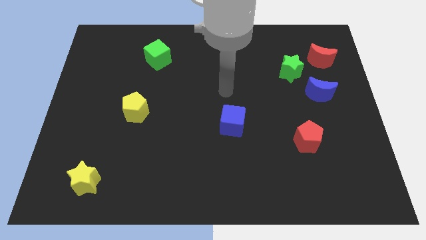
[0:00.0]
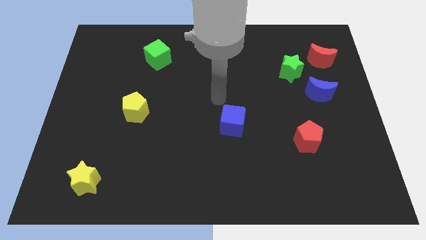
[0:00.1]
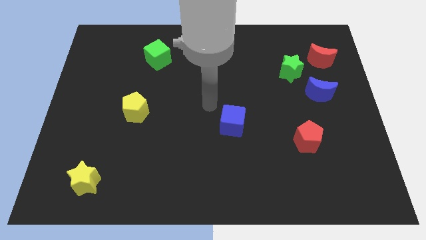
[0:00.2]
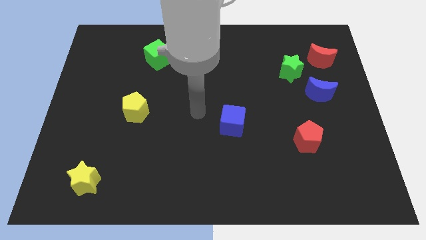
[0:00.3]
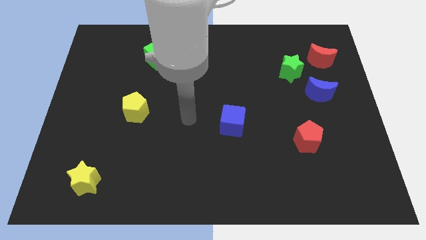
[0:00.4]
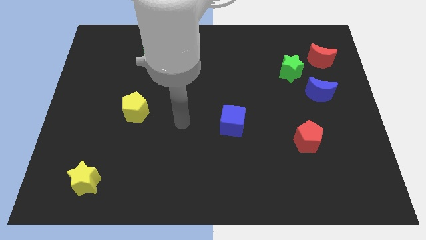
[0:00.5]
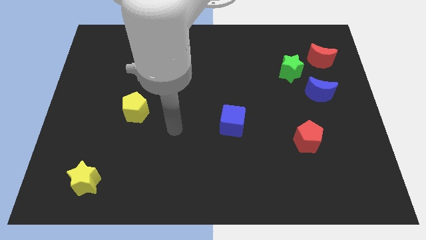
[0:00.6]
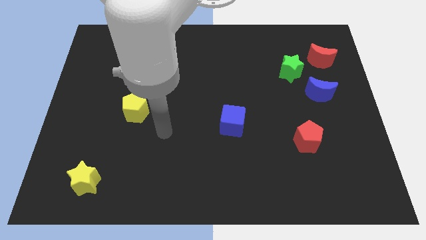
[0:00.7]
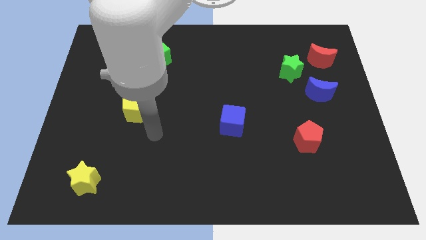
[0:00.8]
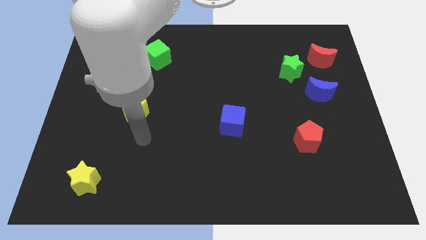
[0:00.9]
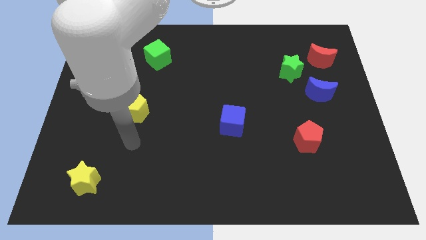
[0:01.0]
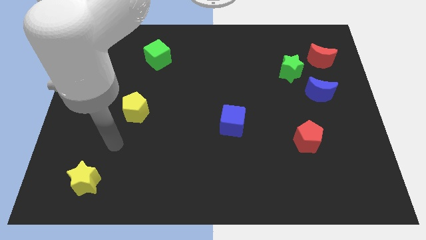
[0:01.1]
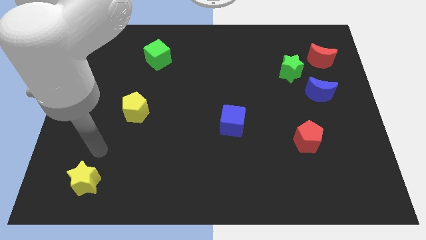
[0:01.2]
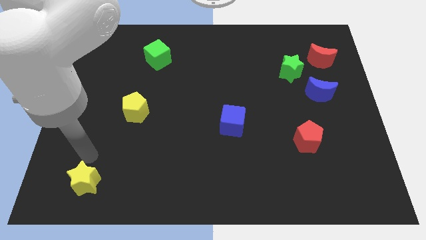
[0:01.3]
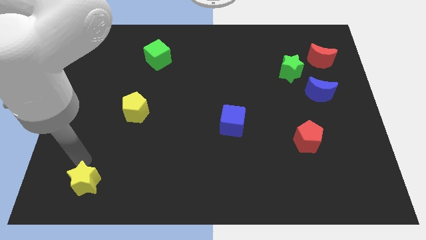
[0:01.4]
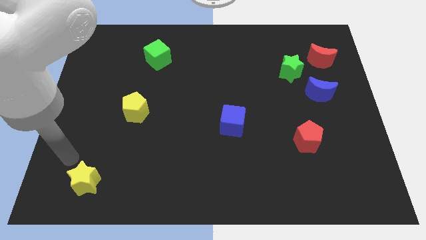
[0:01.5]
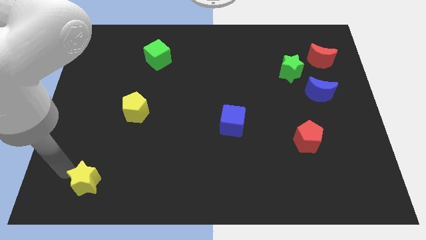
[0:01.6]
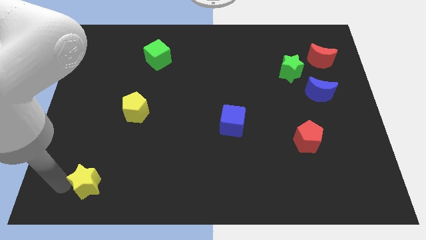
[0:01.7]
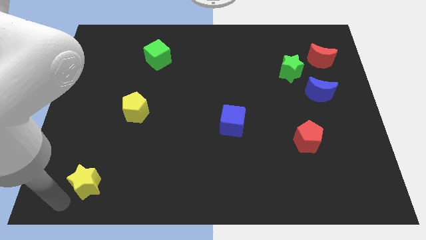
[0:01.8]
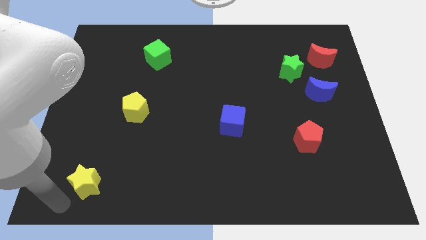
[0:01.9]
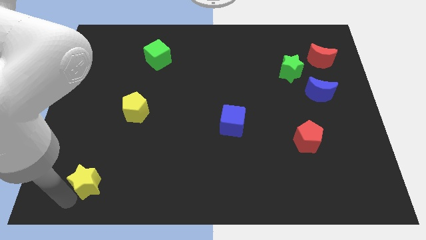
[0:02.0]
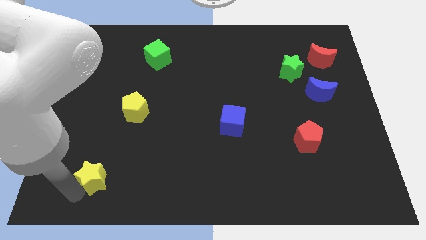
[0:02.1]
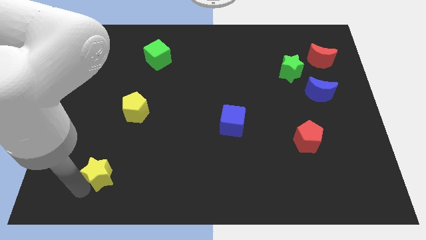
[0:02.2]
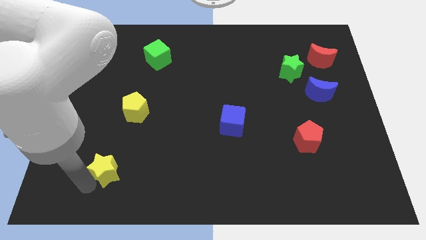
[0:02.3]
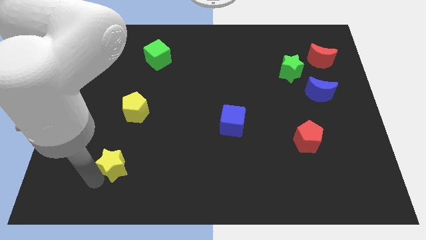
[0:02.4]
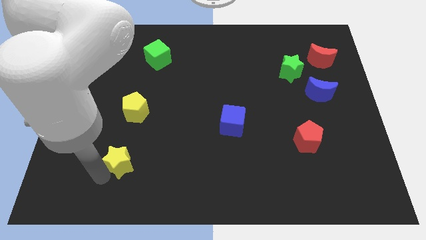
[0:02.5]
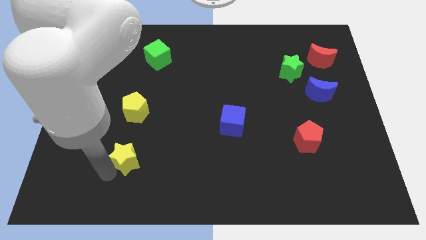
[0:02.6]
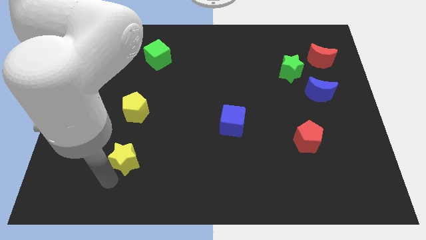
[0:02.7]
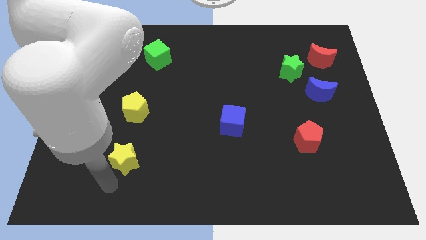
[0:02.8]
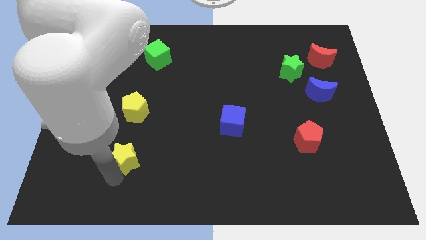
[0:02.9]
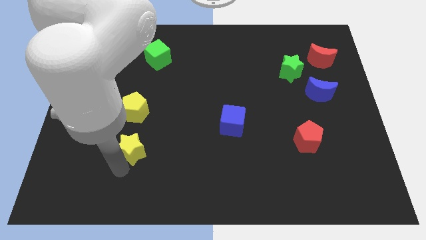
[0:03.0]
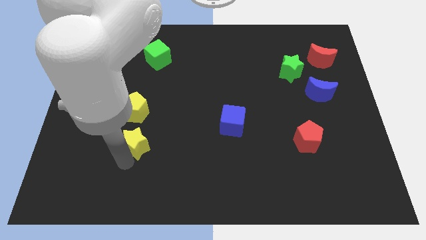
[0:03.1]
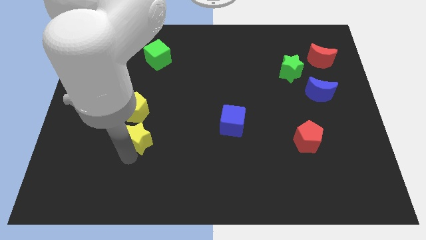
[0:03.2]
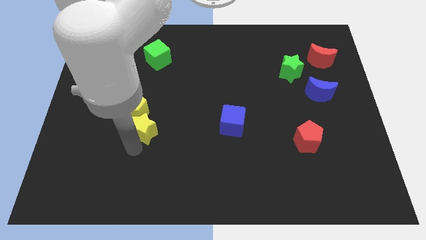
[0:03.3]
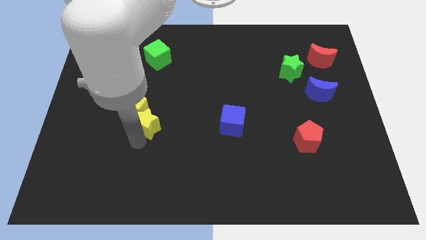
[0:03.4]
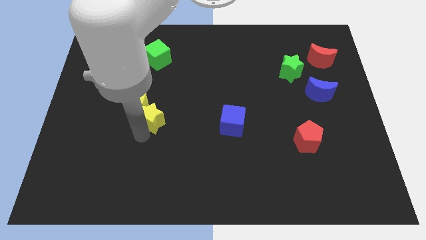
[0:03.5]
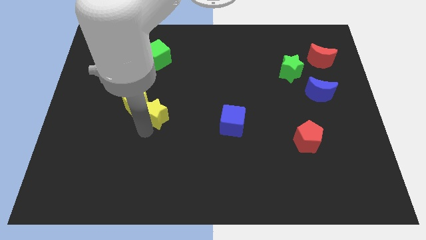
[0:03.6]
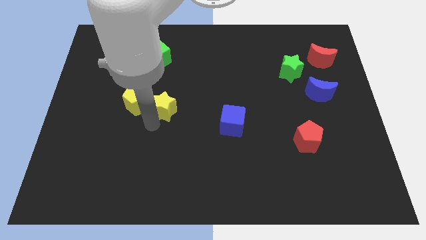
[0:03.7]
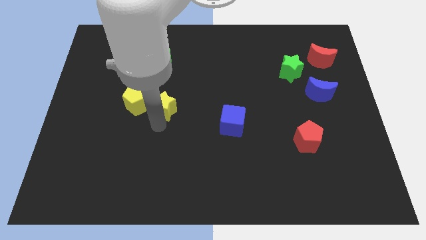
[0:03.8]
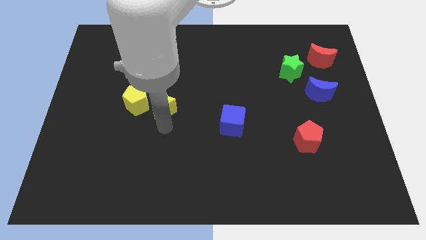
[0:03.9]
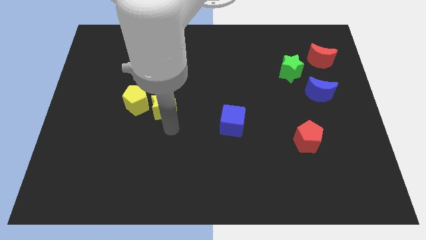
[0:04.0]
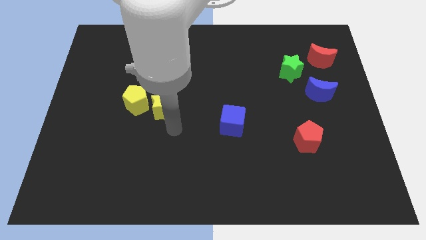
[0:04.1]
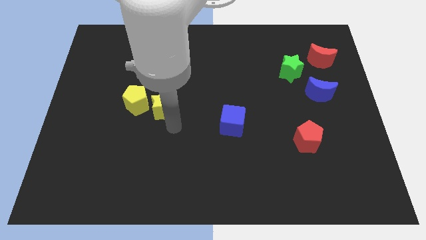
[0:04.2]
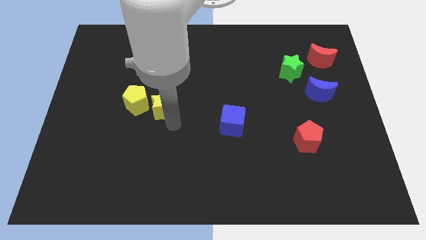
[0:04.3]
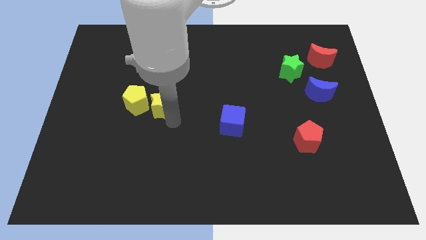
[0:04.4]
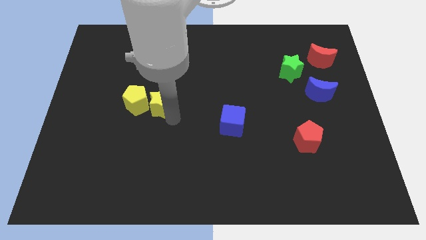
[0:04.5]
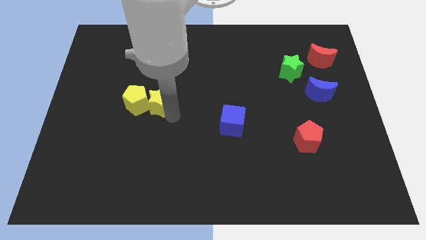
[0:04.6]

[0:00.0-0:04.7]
push the yellow star below the green cube

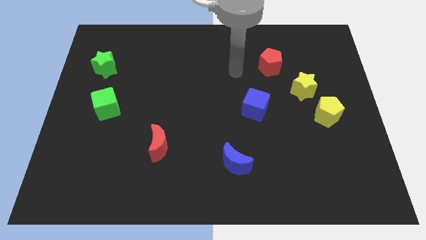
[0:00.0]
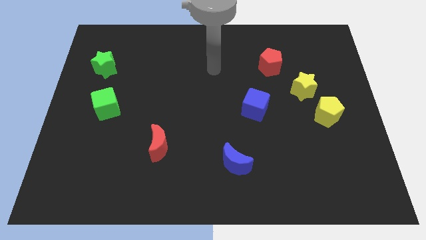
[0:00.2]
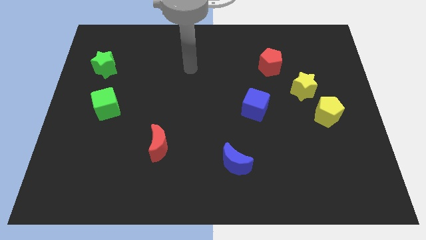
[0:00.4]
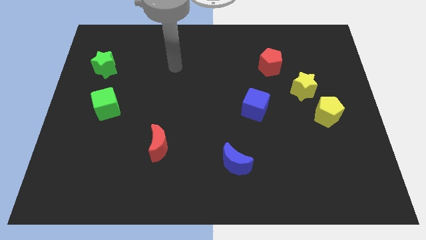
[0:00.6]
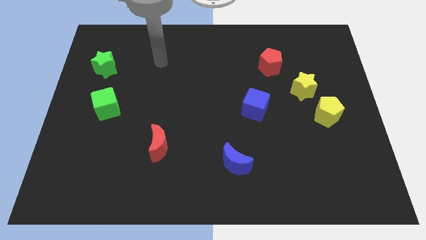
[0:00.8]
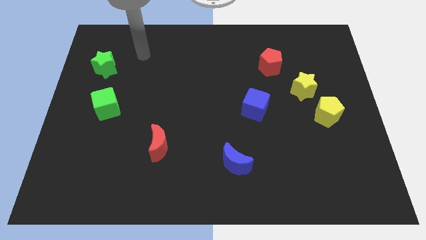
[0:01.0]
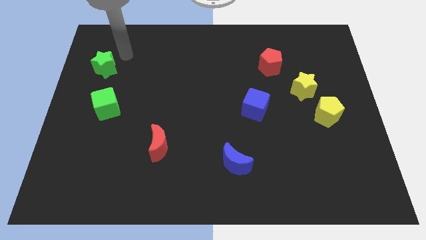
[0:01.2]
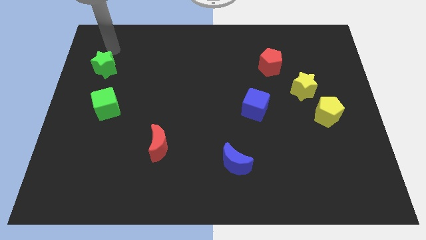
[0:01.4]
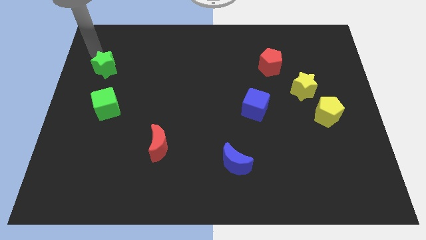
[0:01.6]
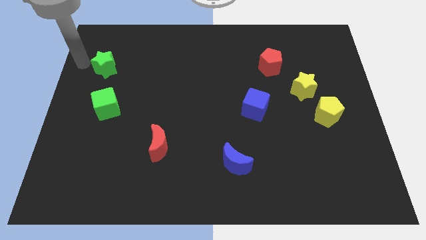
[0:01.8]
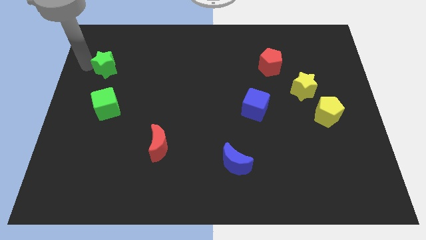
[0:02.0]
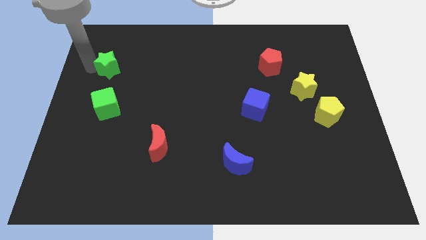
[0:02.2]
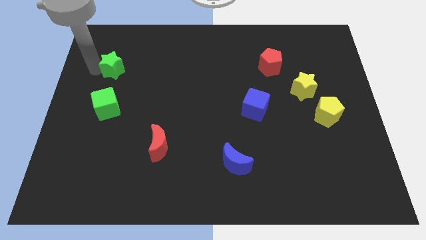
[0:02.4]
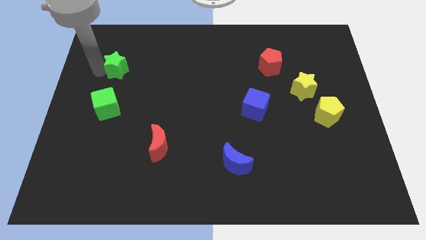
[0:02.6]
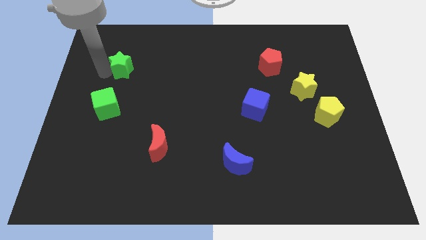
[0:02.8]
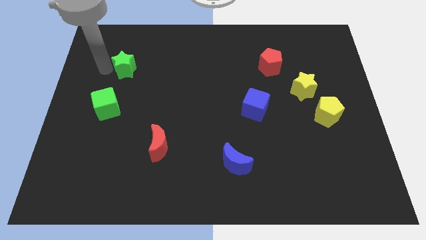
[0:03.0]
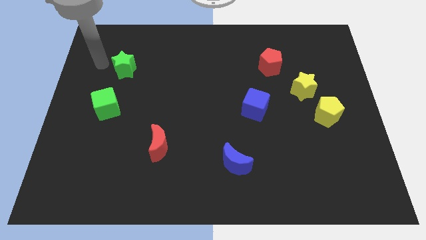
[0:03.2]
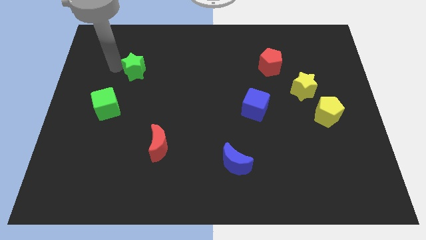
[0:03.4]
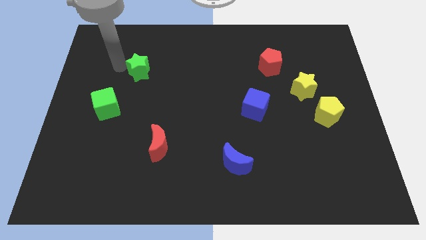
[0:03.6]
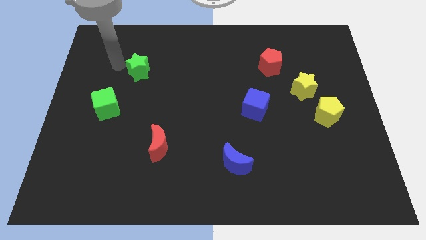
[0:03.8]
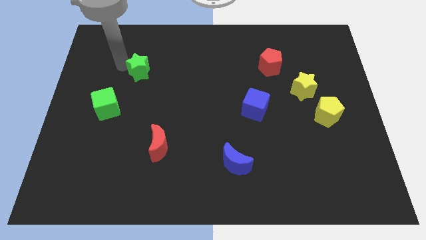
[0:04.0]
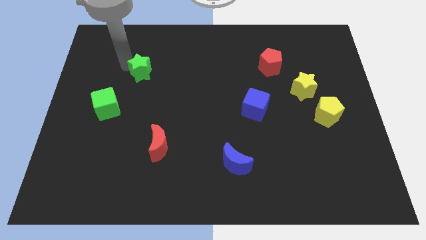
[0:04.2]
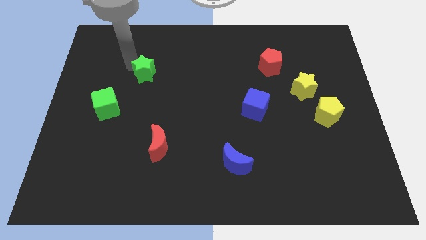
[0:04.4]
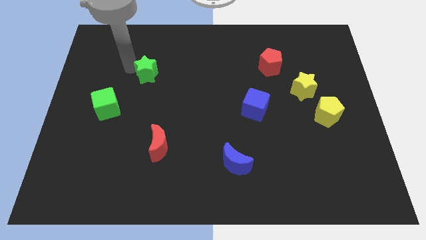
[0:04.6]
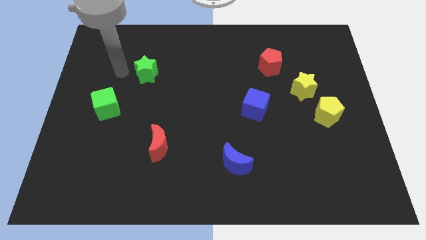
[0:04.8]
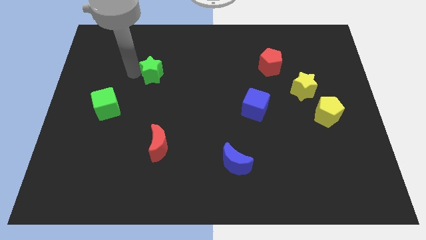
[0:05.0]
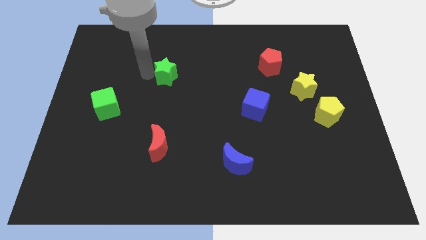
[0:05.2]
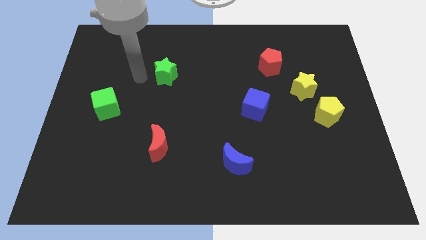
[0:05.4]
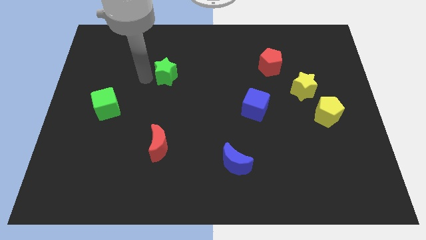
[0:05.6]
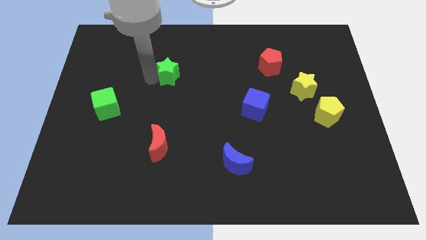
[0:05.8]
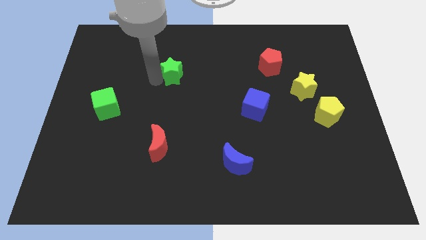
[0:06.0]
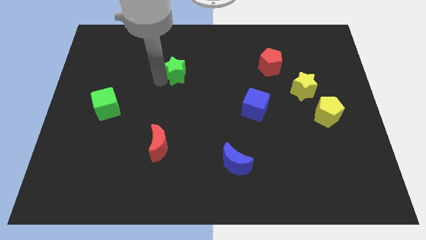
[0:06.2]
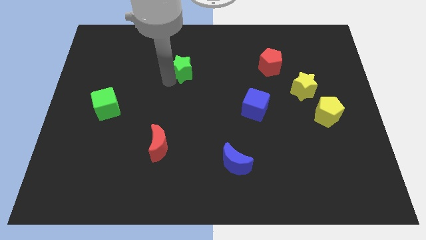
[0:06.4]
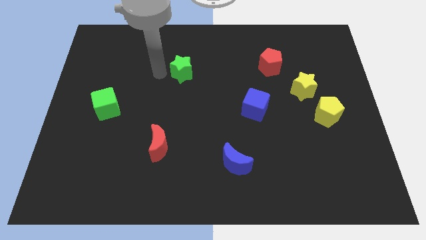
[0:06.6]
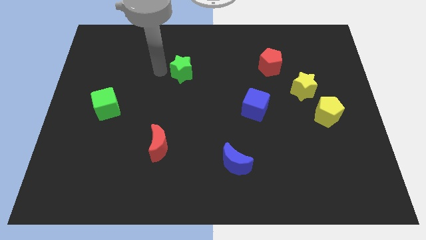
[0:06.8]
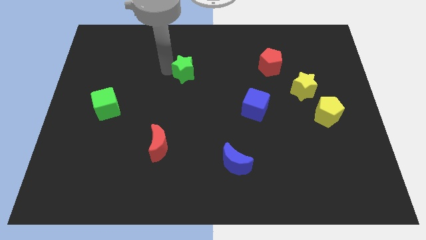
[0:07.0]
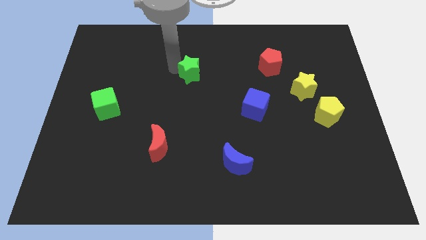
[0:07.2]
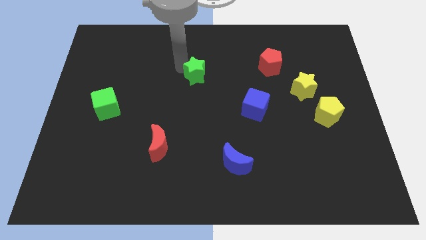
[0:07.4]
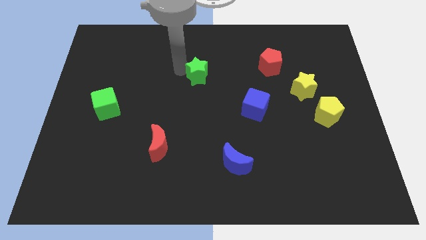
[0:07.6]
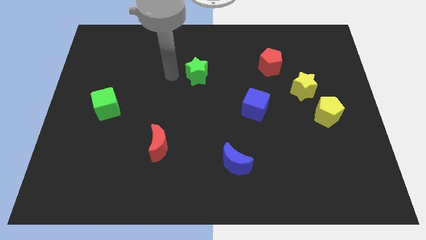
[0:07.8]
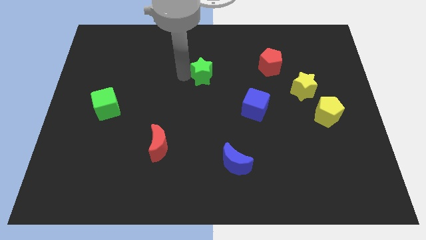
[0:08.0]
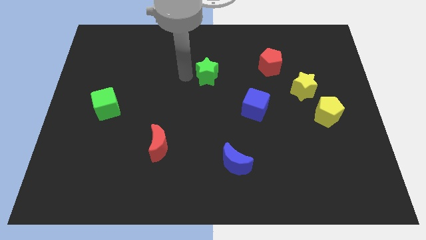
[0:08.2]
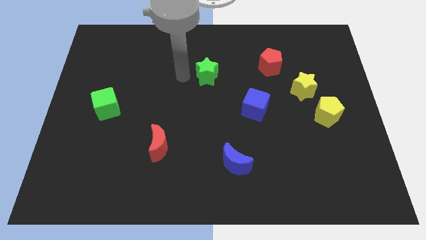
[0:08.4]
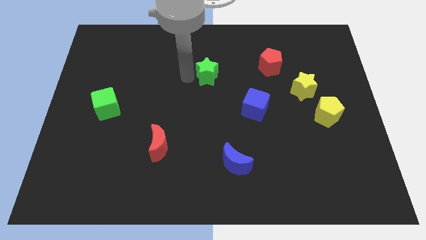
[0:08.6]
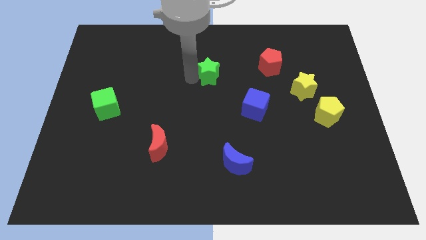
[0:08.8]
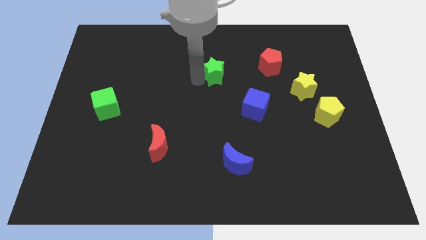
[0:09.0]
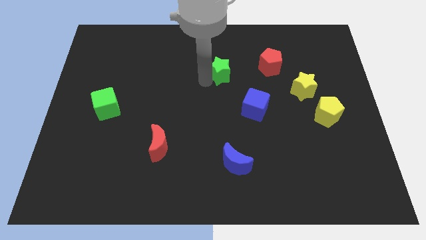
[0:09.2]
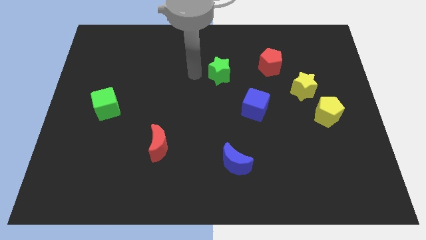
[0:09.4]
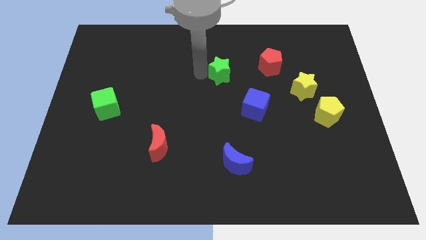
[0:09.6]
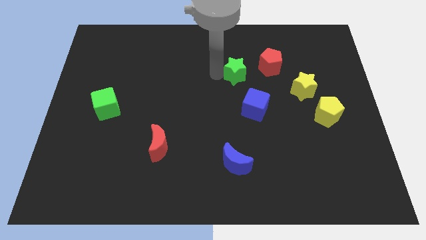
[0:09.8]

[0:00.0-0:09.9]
slide the green star above the blue cube
